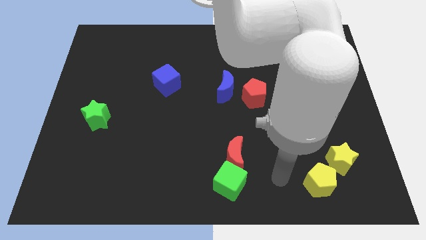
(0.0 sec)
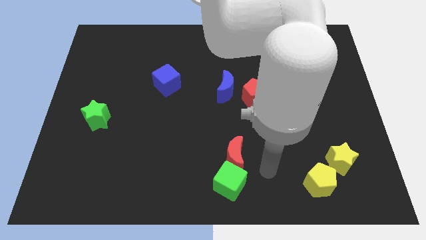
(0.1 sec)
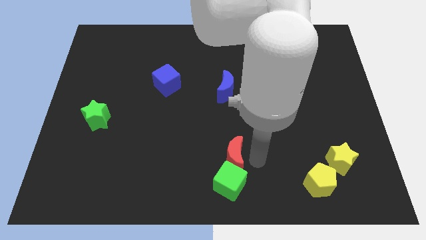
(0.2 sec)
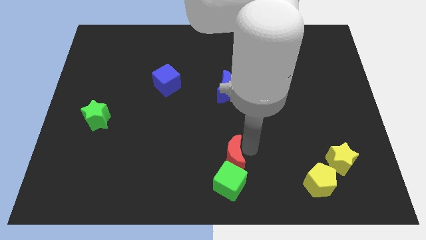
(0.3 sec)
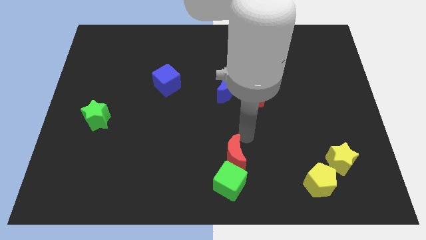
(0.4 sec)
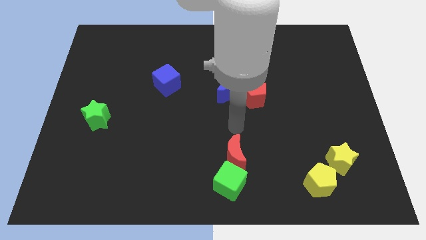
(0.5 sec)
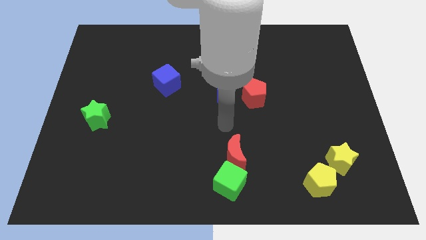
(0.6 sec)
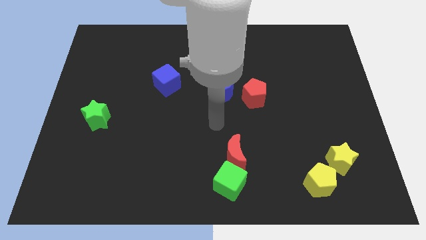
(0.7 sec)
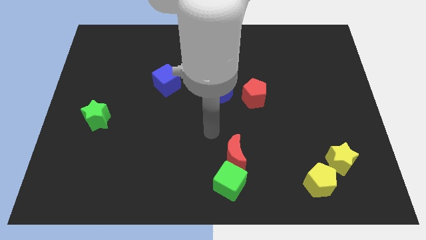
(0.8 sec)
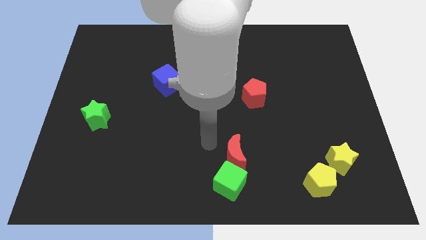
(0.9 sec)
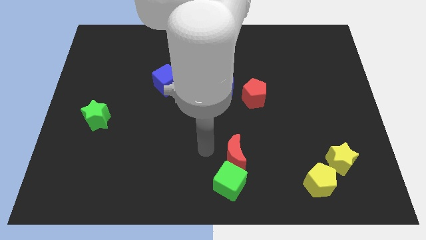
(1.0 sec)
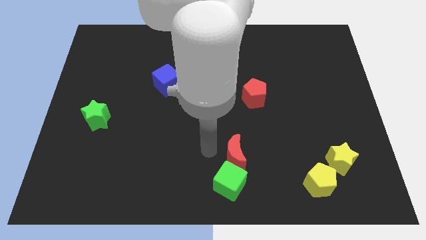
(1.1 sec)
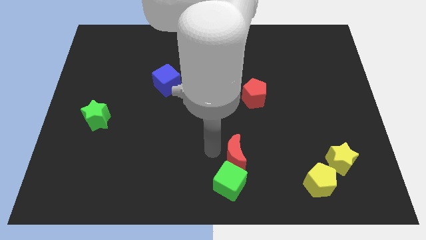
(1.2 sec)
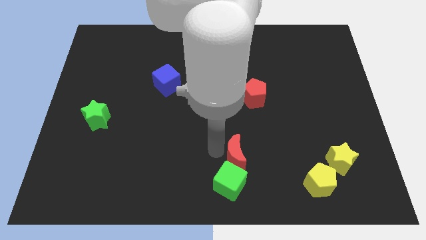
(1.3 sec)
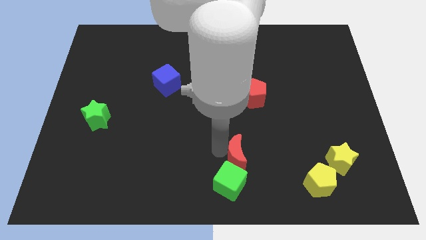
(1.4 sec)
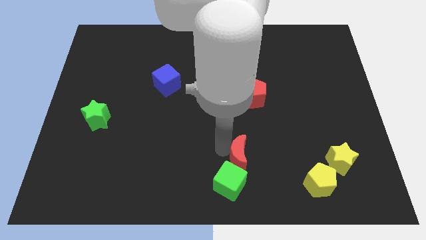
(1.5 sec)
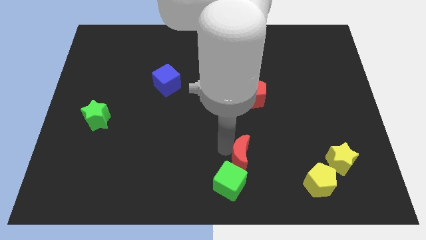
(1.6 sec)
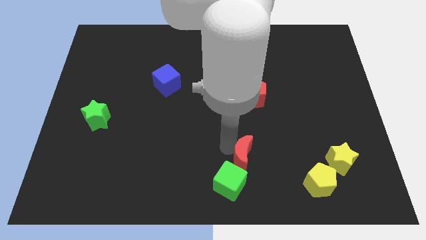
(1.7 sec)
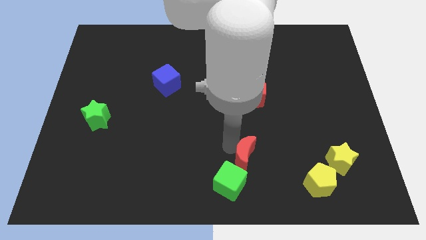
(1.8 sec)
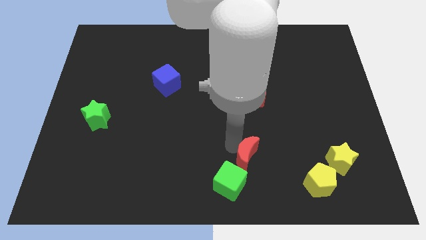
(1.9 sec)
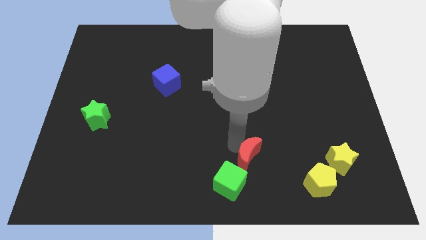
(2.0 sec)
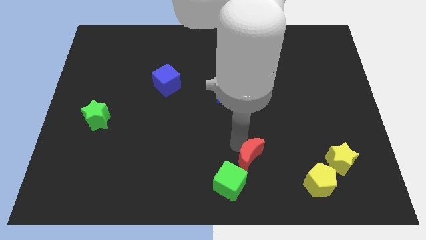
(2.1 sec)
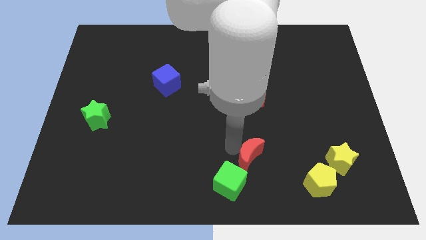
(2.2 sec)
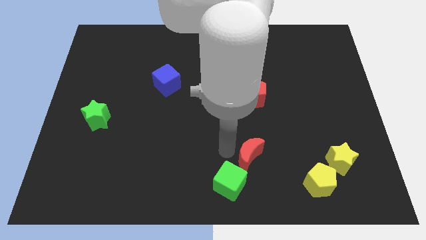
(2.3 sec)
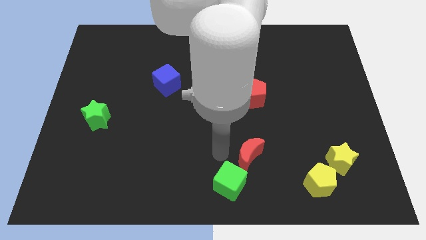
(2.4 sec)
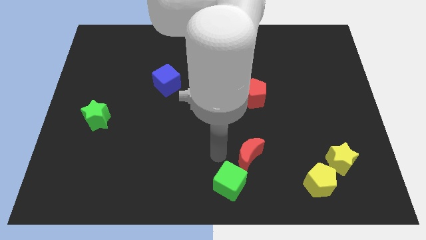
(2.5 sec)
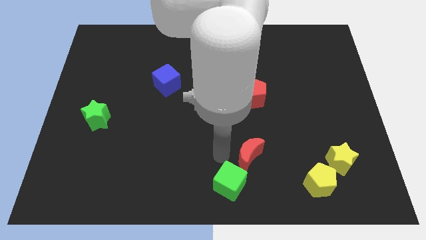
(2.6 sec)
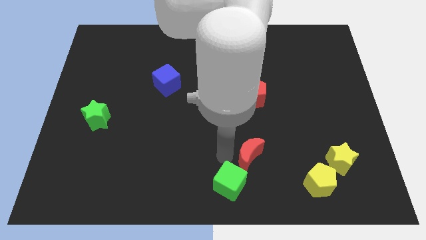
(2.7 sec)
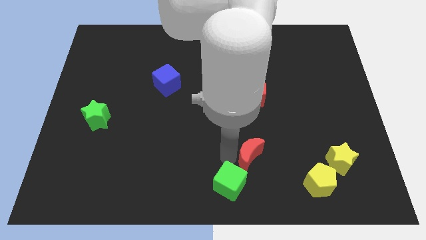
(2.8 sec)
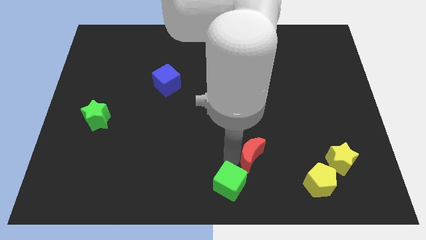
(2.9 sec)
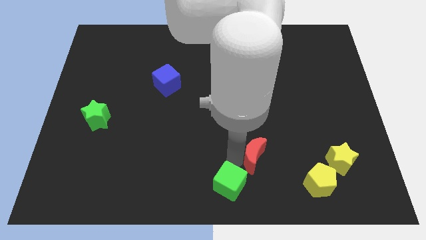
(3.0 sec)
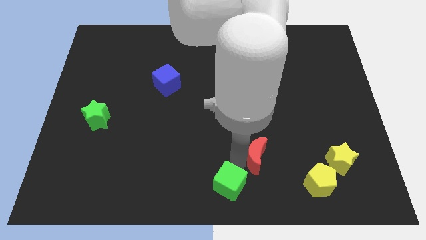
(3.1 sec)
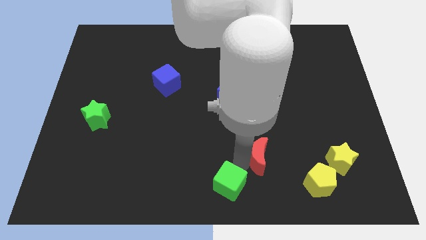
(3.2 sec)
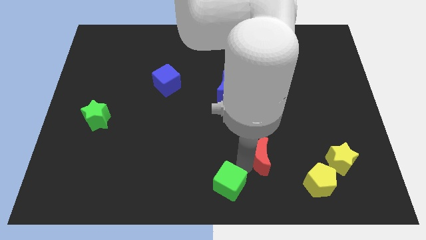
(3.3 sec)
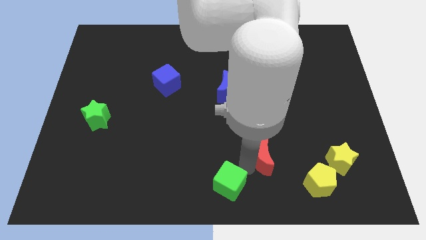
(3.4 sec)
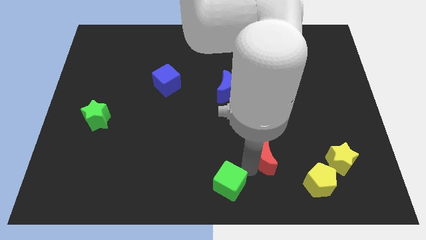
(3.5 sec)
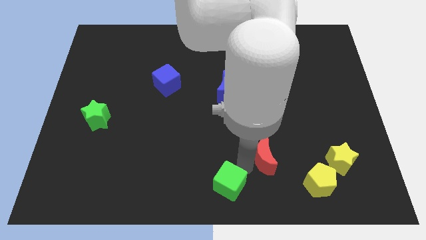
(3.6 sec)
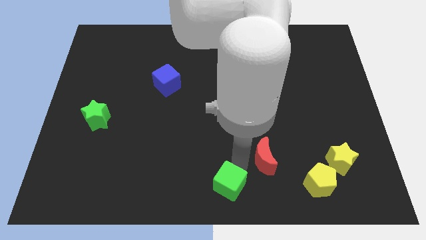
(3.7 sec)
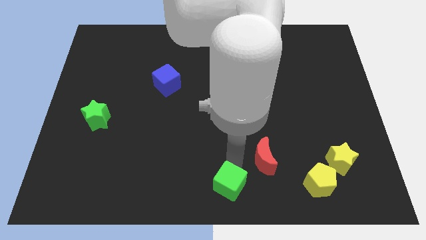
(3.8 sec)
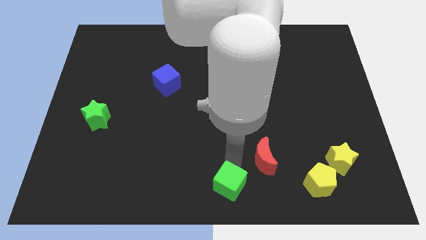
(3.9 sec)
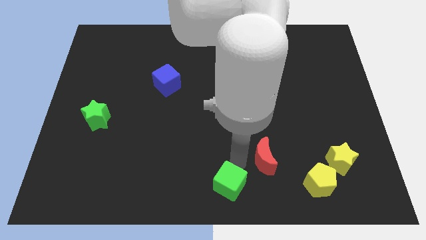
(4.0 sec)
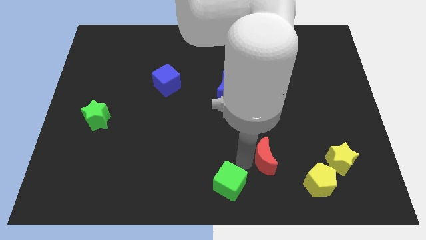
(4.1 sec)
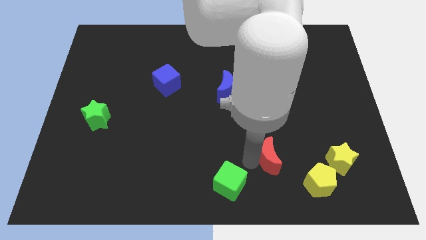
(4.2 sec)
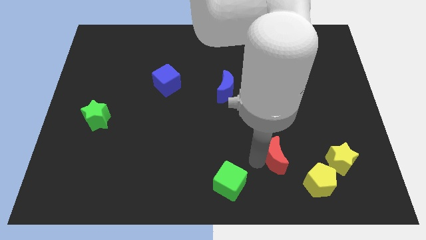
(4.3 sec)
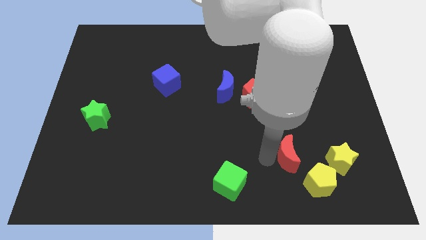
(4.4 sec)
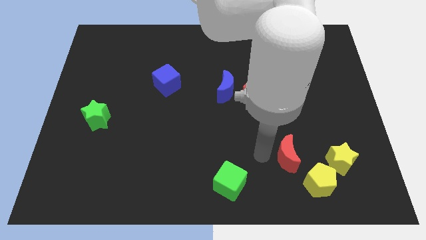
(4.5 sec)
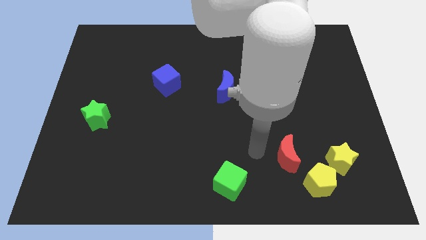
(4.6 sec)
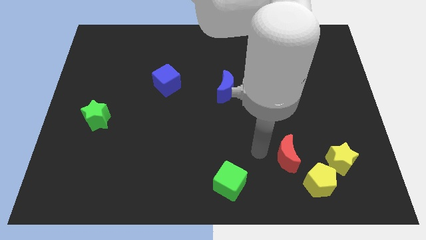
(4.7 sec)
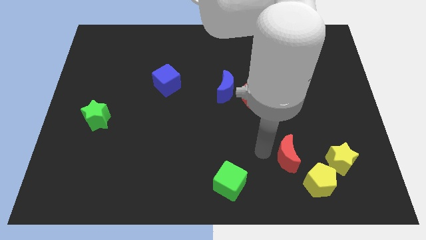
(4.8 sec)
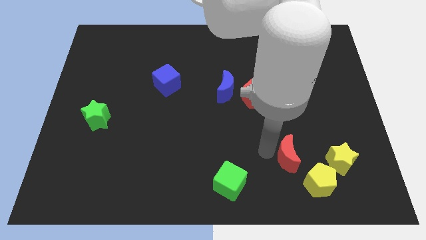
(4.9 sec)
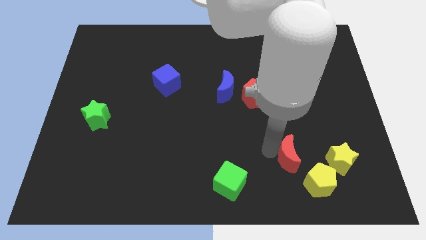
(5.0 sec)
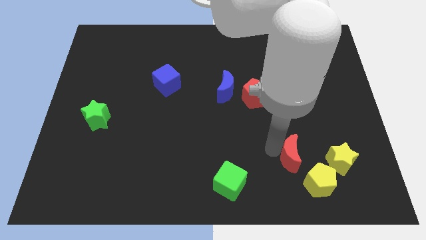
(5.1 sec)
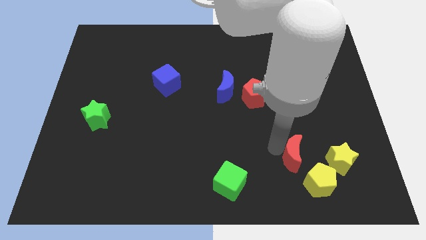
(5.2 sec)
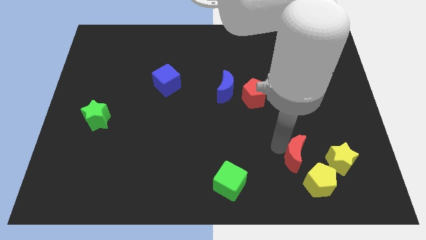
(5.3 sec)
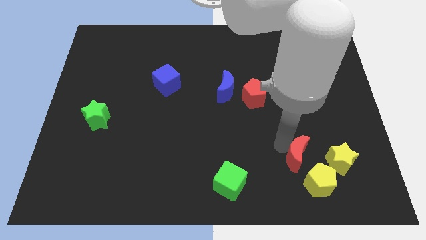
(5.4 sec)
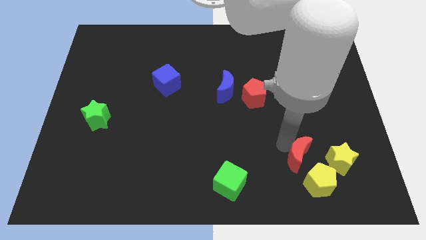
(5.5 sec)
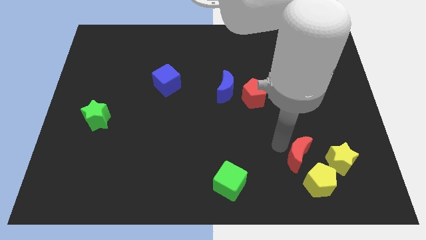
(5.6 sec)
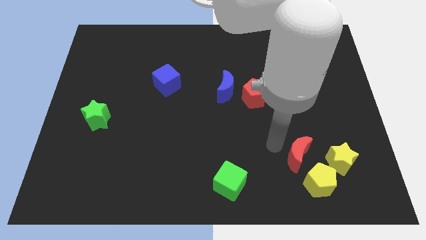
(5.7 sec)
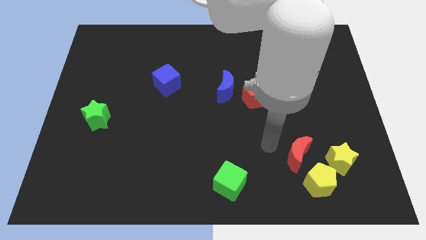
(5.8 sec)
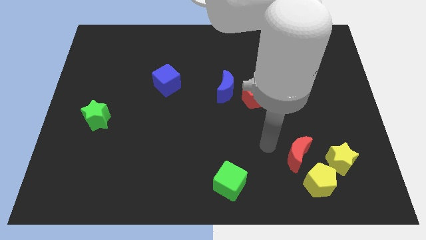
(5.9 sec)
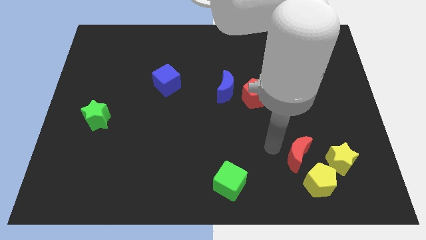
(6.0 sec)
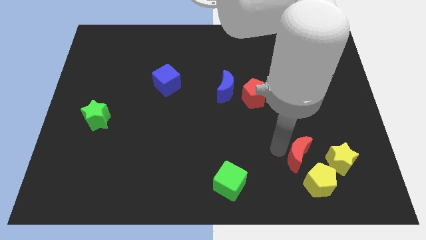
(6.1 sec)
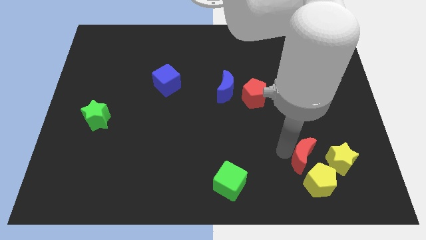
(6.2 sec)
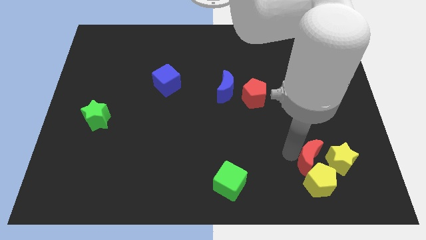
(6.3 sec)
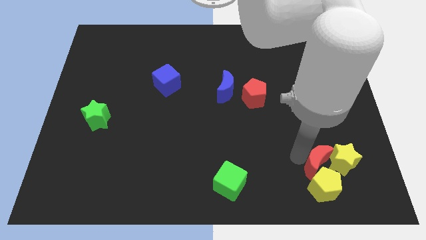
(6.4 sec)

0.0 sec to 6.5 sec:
slide the red moon to the yellow star
